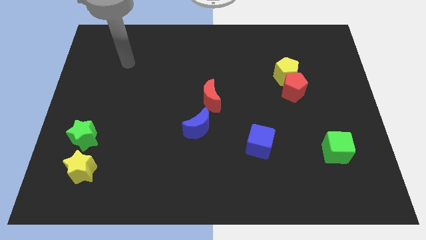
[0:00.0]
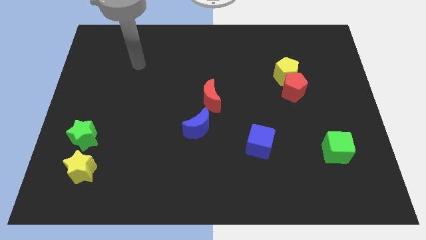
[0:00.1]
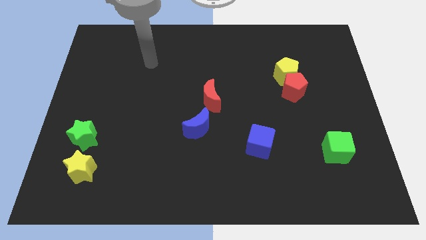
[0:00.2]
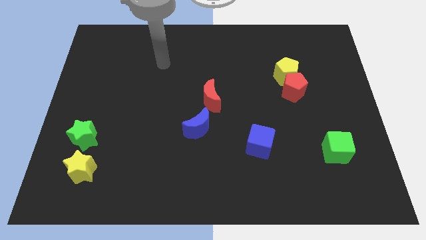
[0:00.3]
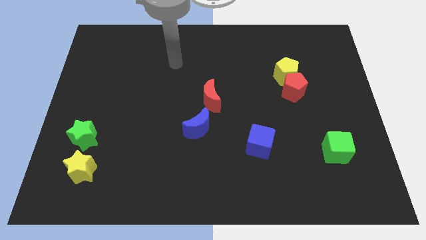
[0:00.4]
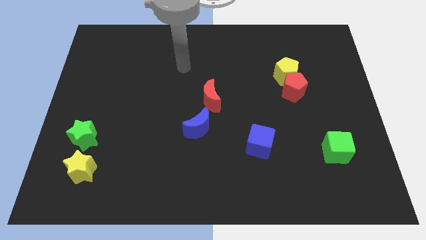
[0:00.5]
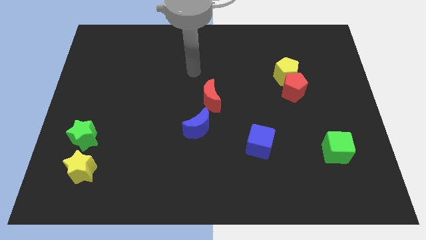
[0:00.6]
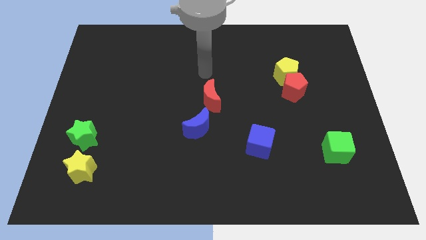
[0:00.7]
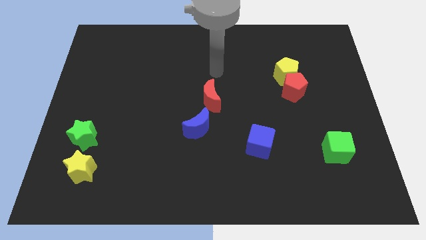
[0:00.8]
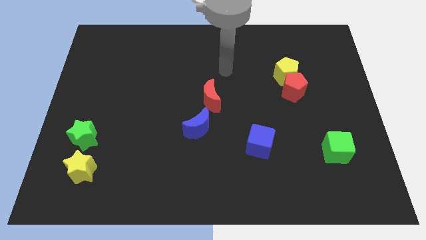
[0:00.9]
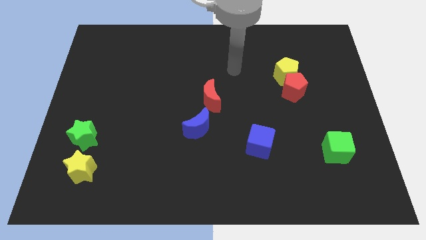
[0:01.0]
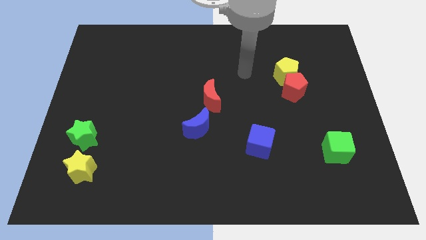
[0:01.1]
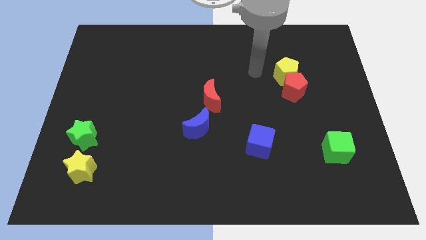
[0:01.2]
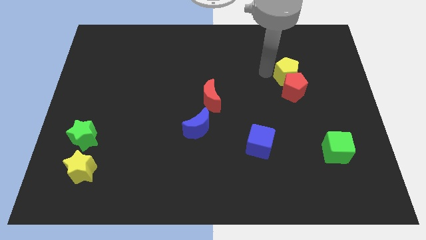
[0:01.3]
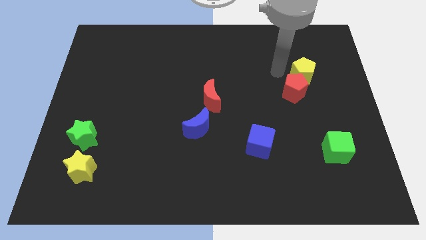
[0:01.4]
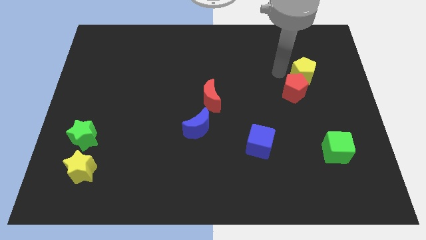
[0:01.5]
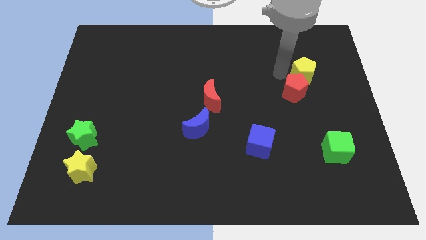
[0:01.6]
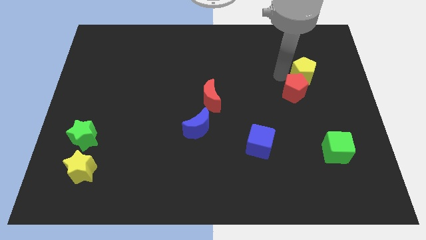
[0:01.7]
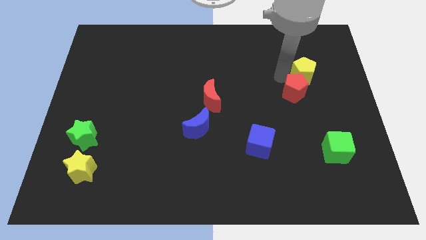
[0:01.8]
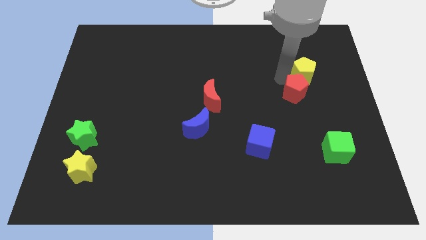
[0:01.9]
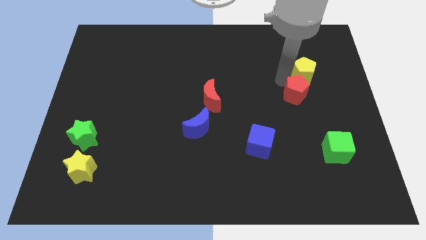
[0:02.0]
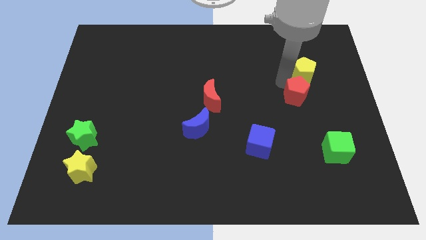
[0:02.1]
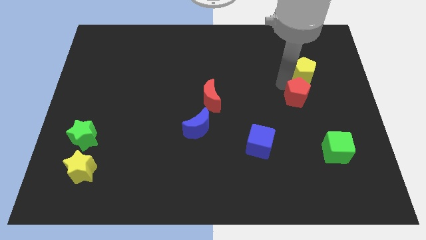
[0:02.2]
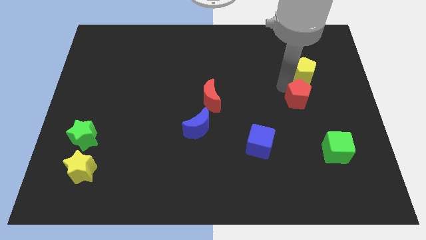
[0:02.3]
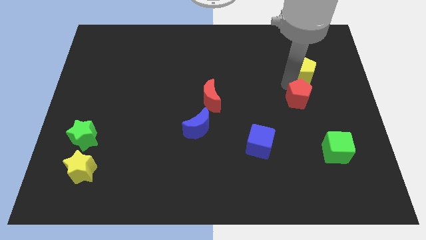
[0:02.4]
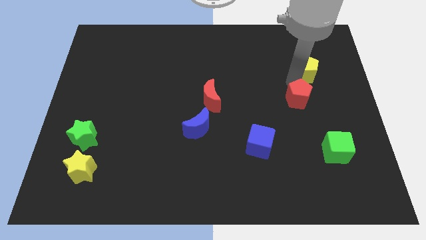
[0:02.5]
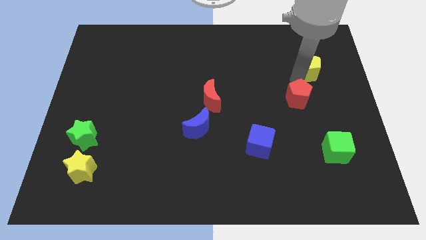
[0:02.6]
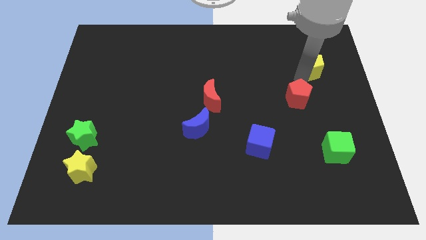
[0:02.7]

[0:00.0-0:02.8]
pull the red pentagon apart from the yellow pentagon

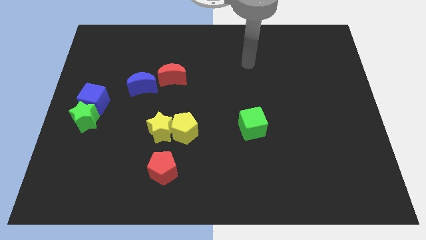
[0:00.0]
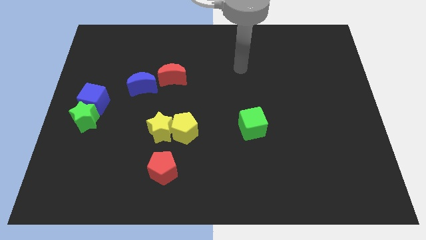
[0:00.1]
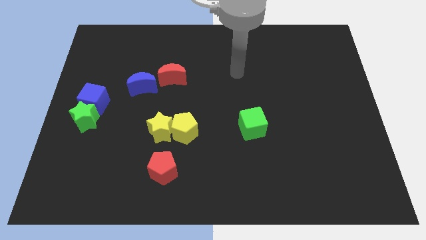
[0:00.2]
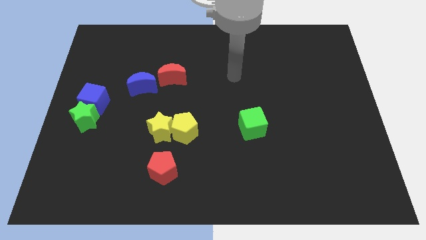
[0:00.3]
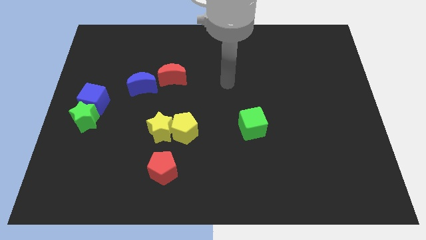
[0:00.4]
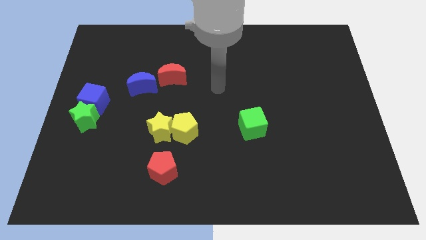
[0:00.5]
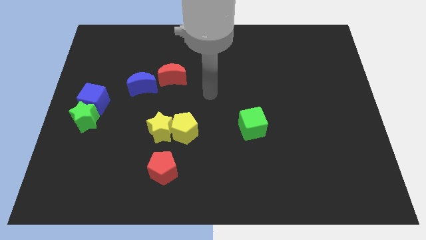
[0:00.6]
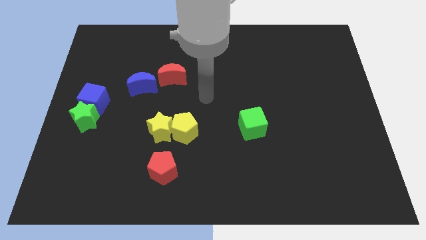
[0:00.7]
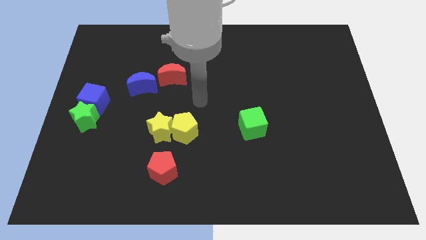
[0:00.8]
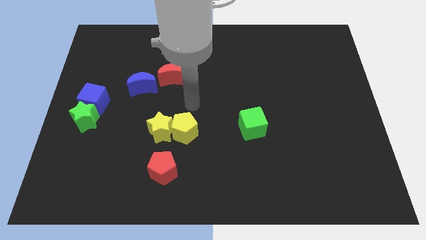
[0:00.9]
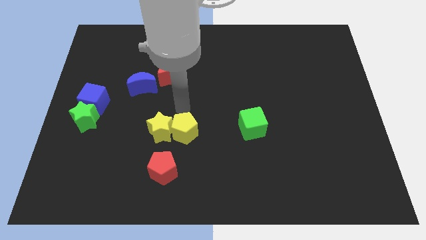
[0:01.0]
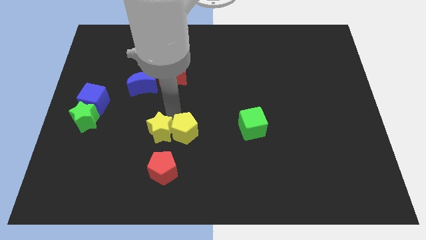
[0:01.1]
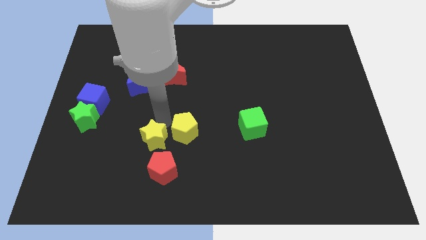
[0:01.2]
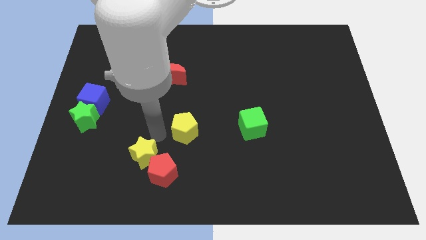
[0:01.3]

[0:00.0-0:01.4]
separate the yellow pentagon from the yellow star

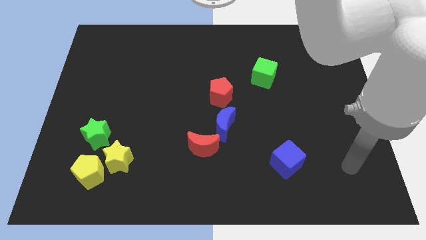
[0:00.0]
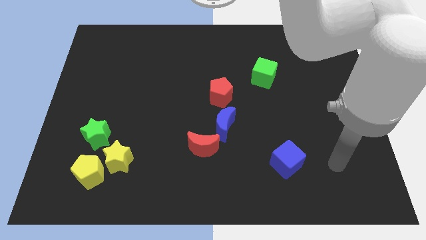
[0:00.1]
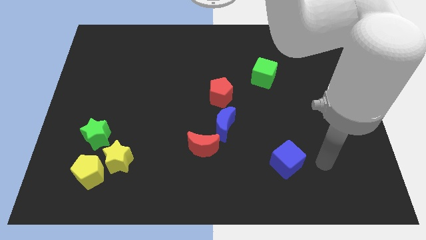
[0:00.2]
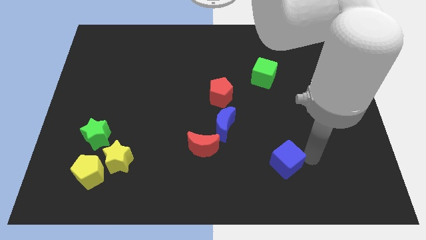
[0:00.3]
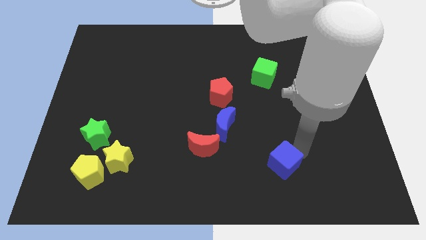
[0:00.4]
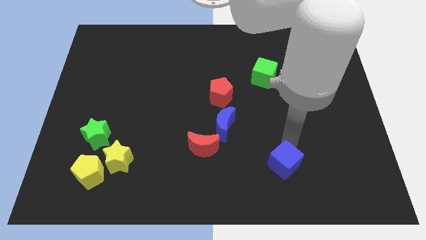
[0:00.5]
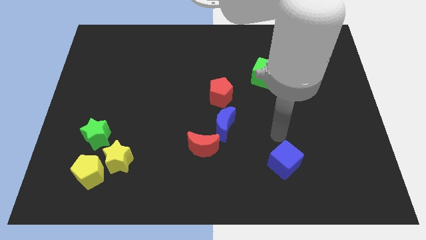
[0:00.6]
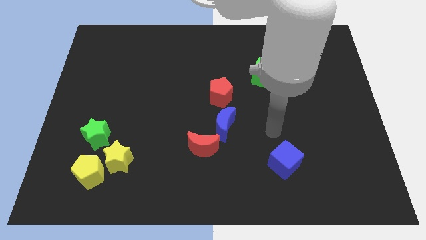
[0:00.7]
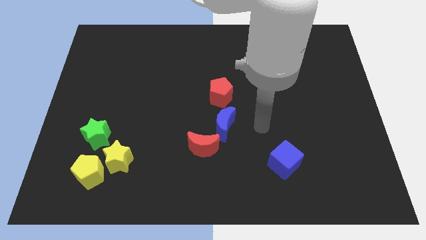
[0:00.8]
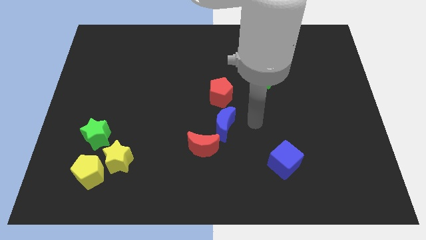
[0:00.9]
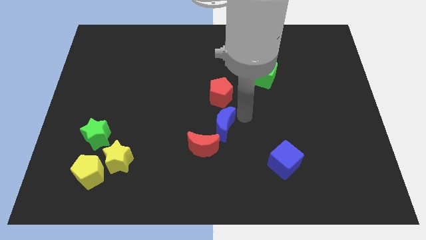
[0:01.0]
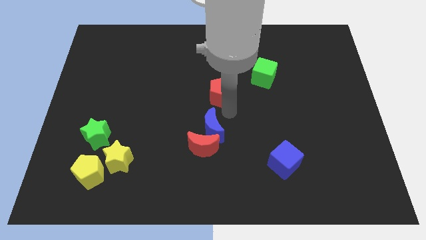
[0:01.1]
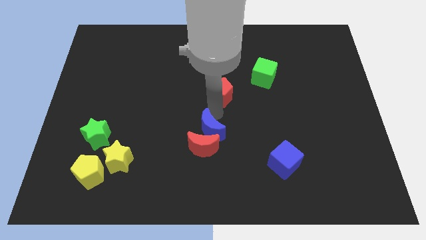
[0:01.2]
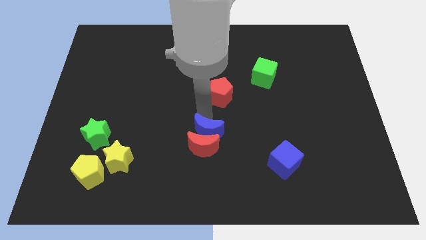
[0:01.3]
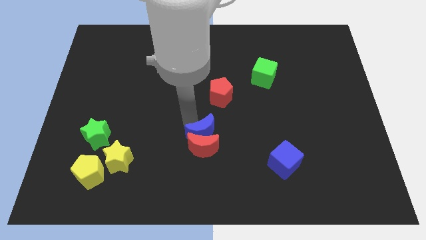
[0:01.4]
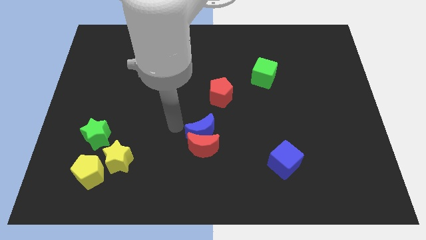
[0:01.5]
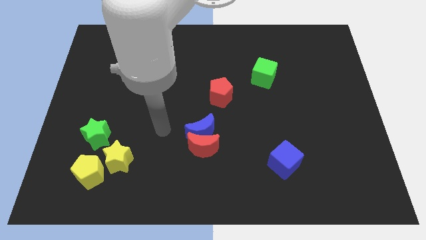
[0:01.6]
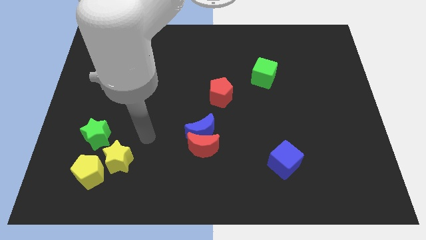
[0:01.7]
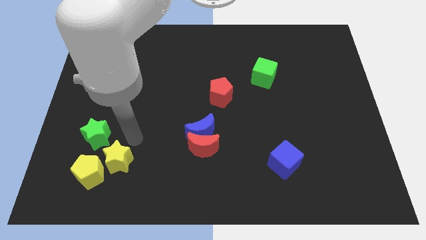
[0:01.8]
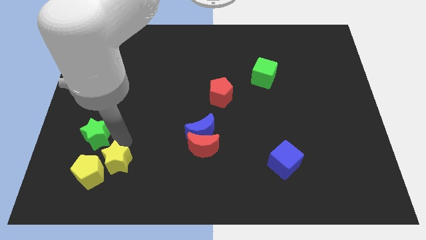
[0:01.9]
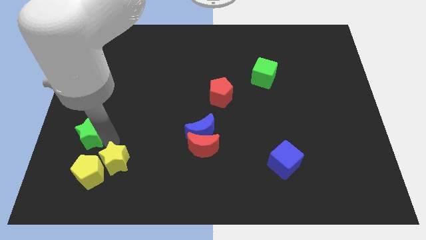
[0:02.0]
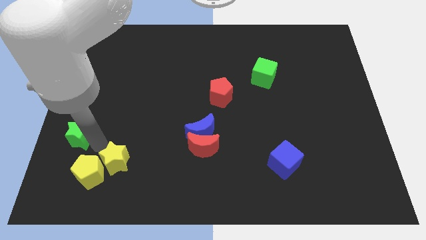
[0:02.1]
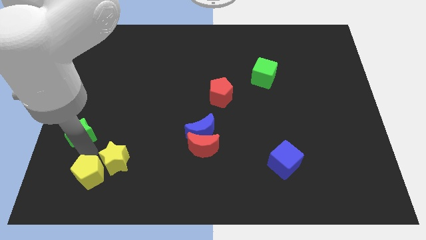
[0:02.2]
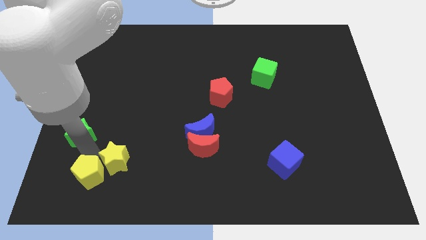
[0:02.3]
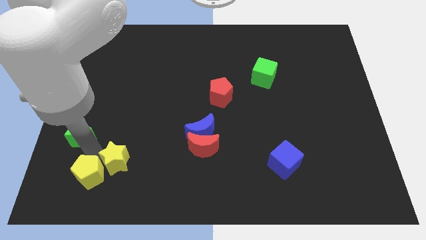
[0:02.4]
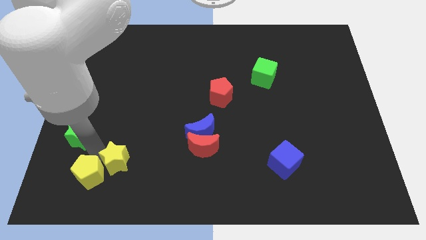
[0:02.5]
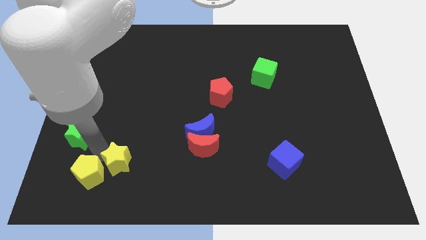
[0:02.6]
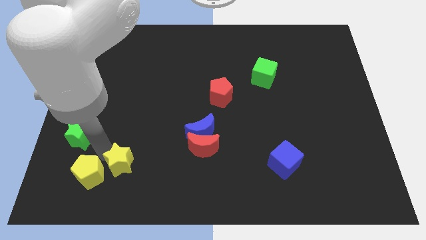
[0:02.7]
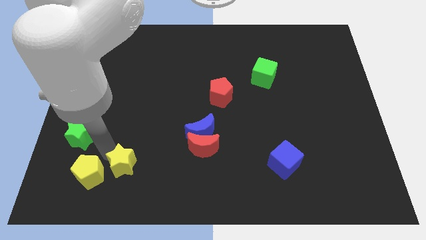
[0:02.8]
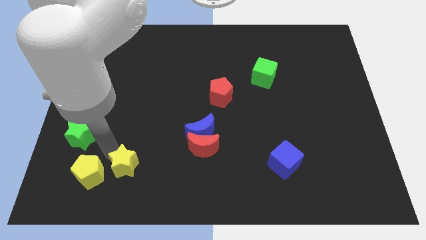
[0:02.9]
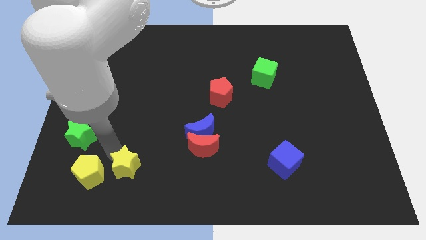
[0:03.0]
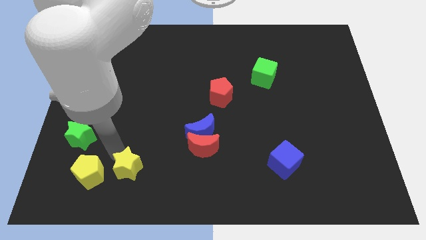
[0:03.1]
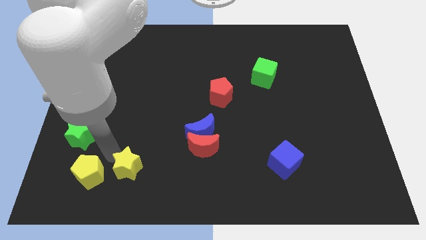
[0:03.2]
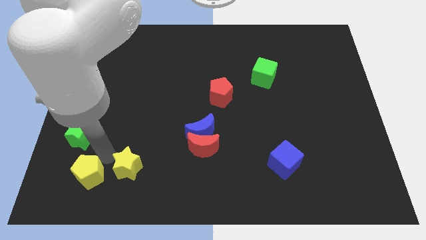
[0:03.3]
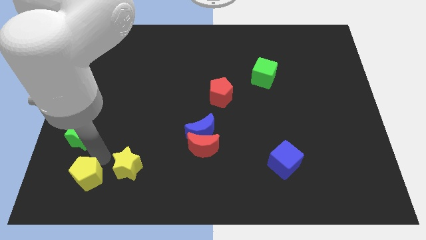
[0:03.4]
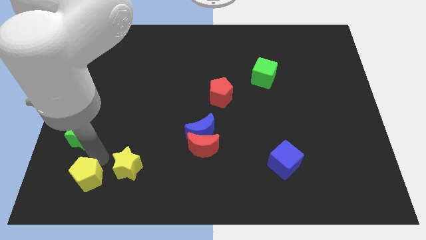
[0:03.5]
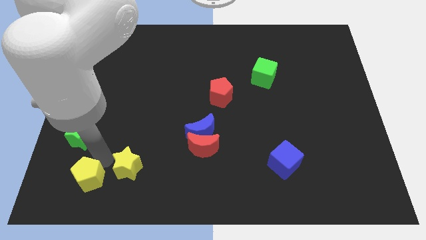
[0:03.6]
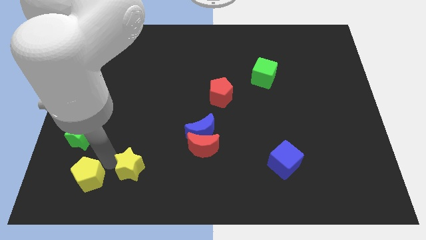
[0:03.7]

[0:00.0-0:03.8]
pull the yellow star apart from the yellow pentagon and green star

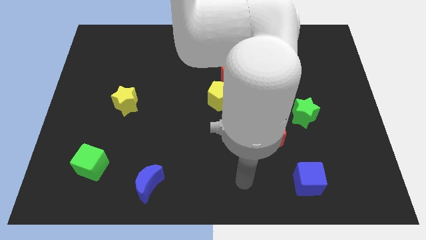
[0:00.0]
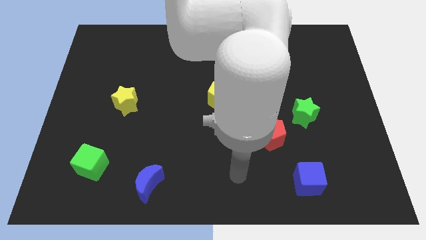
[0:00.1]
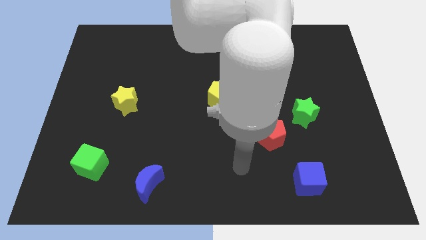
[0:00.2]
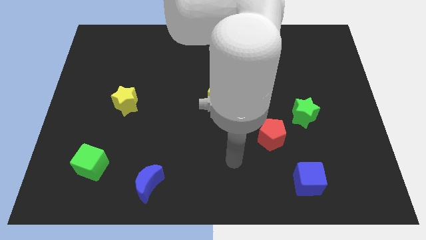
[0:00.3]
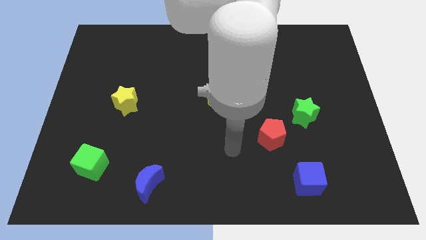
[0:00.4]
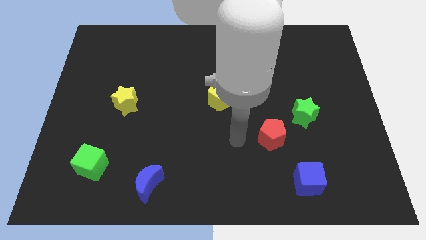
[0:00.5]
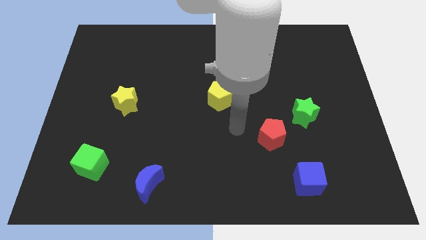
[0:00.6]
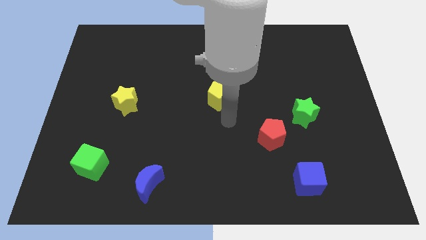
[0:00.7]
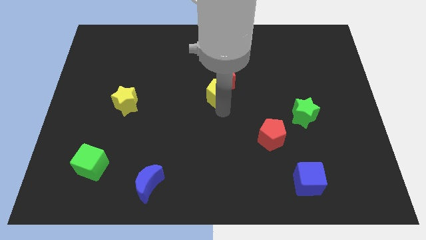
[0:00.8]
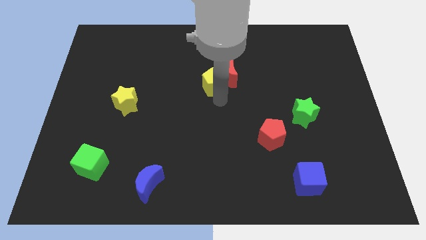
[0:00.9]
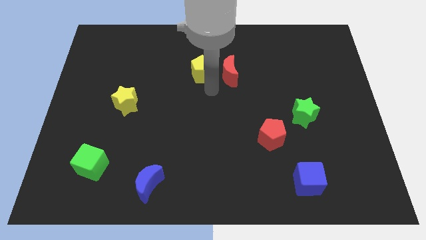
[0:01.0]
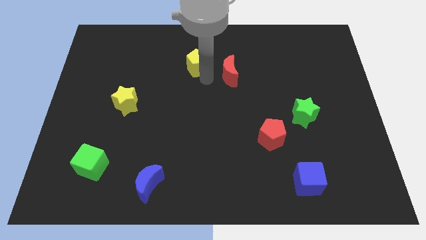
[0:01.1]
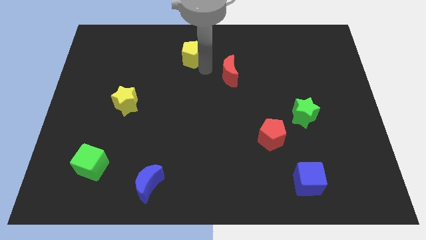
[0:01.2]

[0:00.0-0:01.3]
move the red moon away from the yellow pentagon
